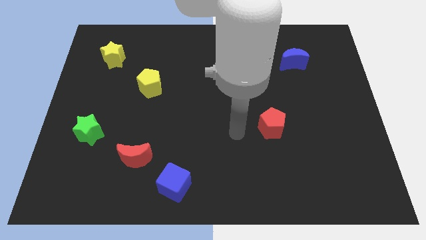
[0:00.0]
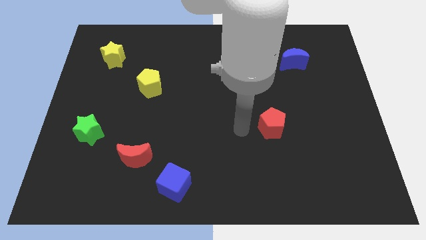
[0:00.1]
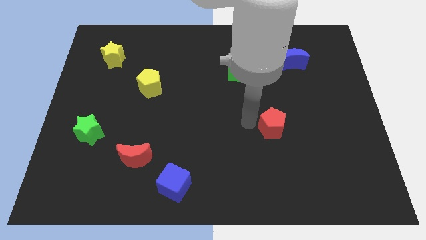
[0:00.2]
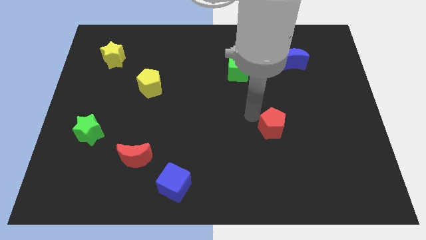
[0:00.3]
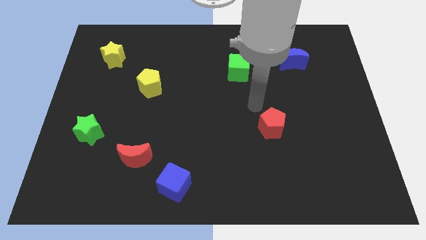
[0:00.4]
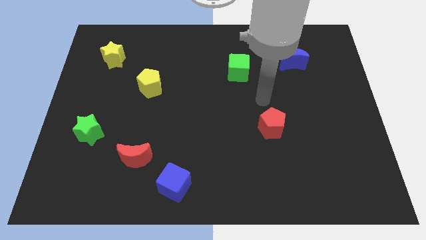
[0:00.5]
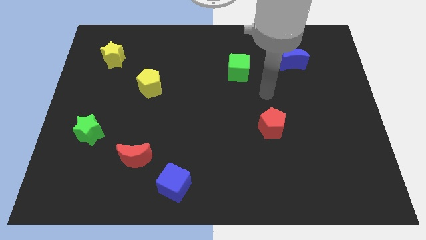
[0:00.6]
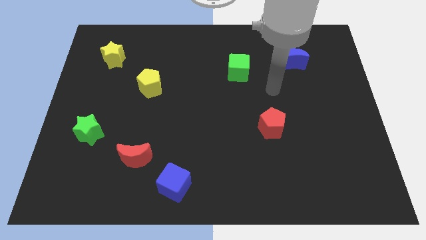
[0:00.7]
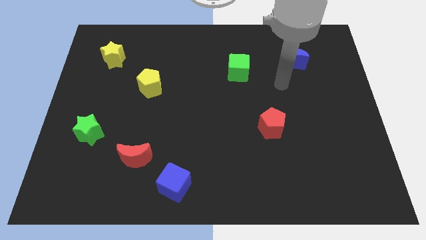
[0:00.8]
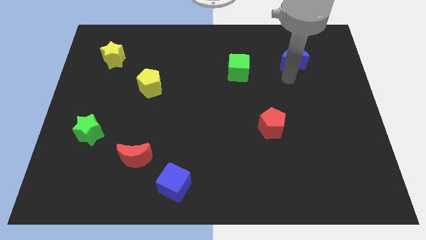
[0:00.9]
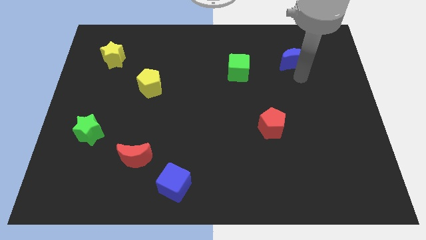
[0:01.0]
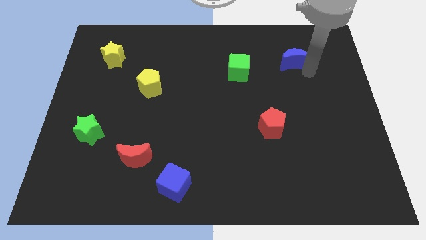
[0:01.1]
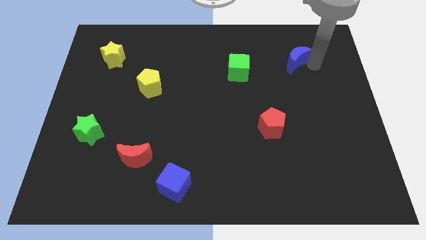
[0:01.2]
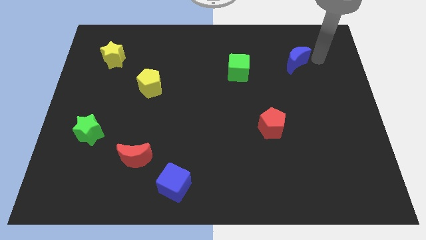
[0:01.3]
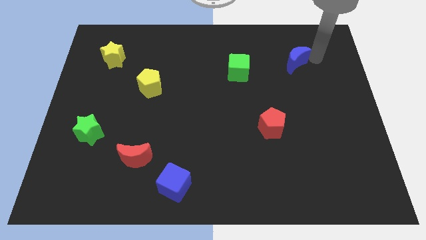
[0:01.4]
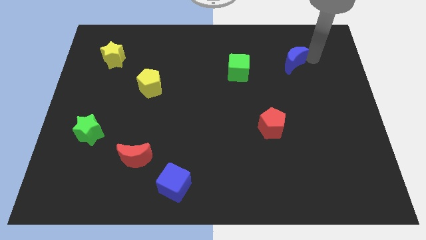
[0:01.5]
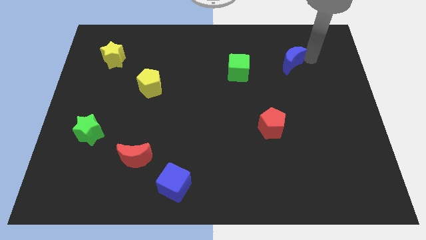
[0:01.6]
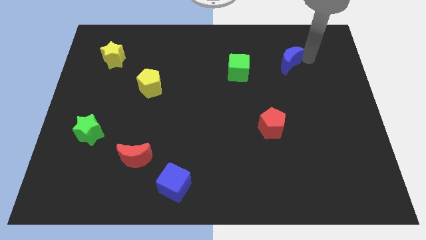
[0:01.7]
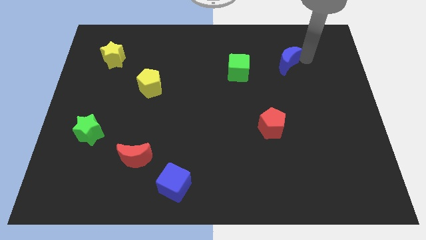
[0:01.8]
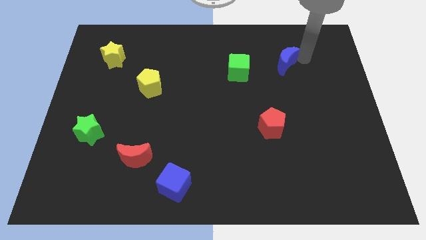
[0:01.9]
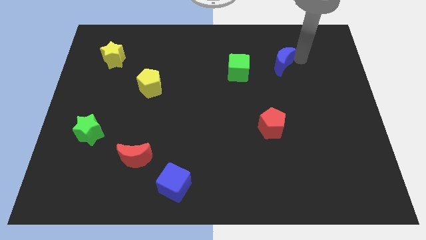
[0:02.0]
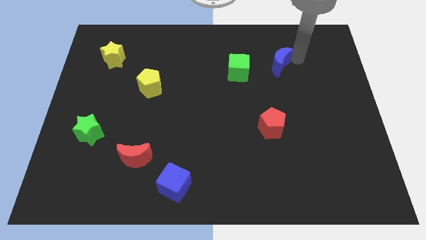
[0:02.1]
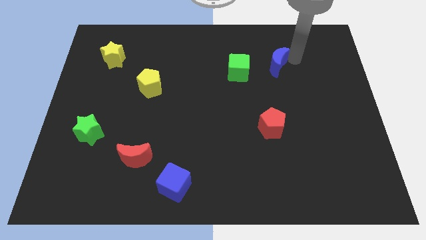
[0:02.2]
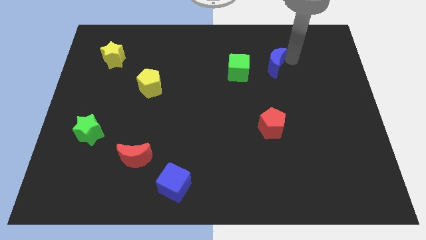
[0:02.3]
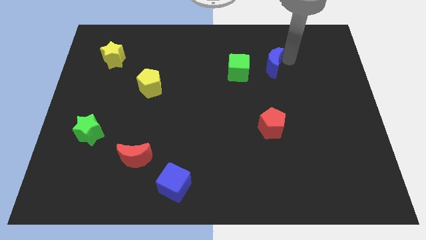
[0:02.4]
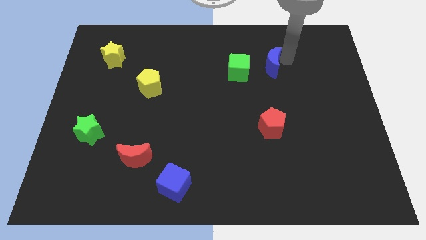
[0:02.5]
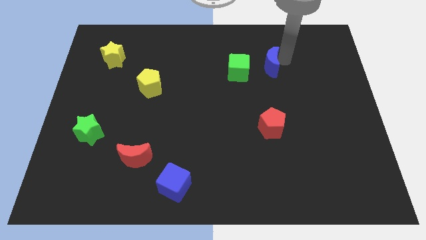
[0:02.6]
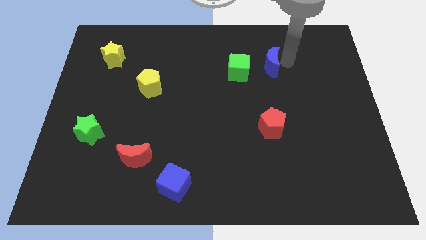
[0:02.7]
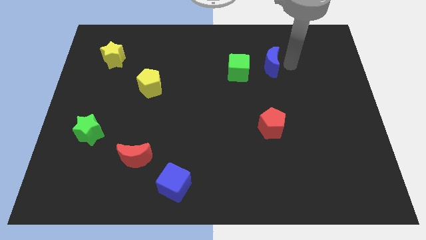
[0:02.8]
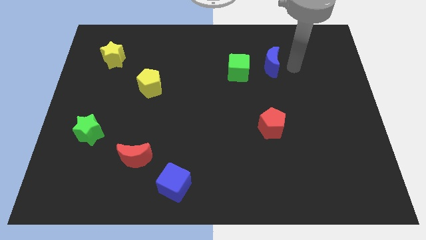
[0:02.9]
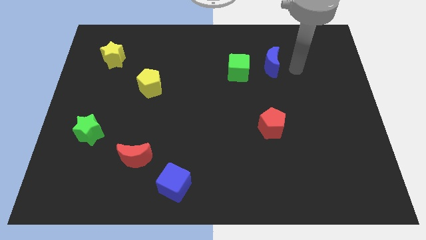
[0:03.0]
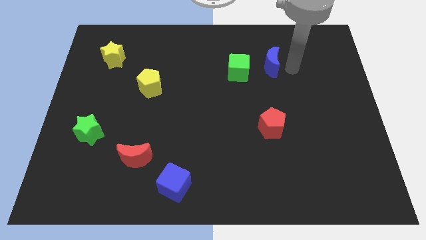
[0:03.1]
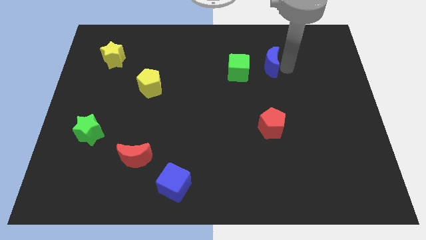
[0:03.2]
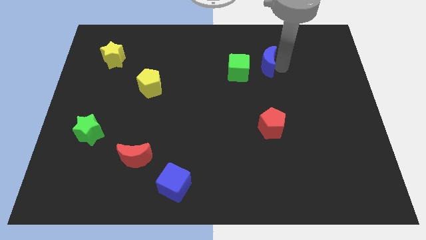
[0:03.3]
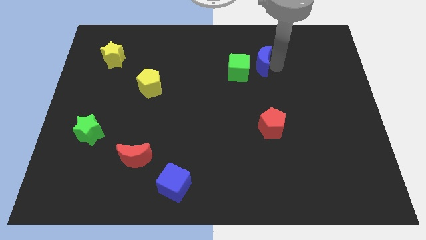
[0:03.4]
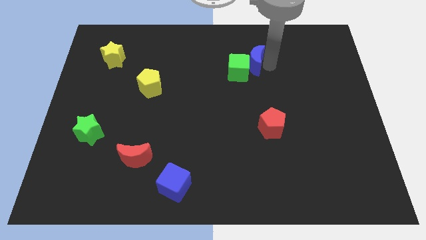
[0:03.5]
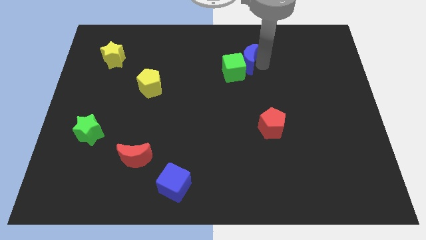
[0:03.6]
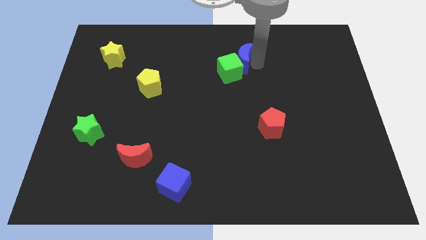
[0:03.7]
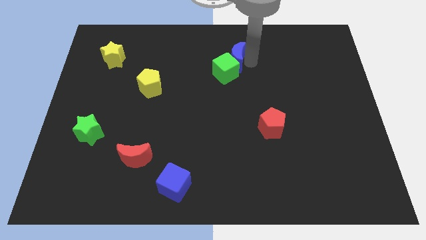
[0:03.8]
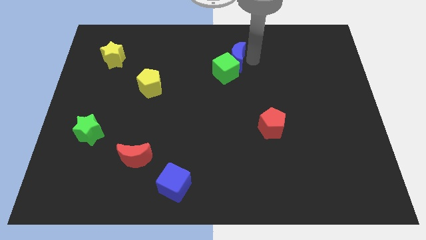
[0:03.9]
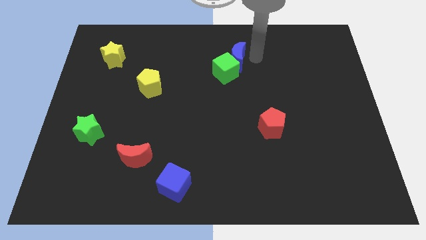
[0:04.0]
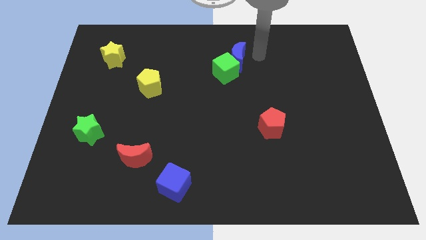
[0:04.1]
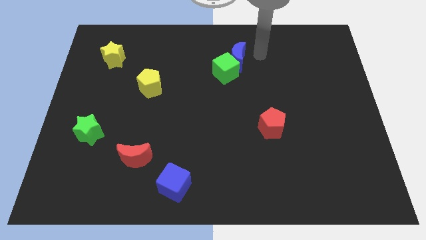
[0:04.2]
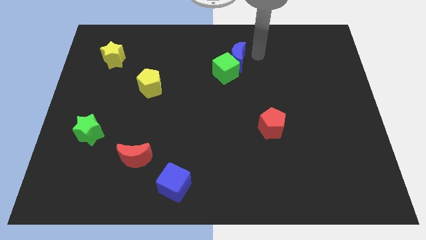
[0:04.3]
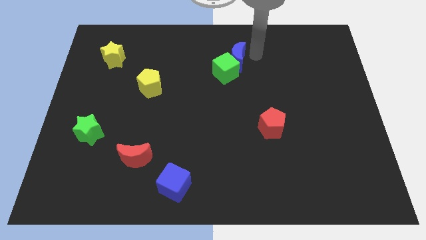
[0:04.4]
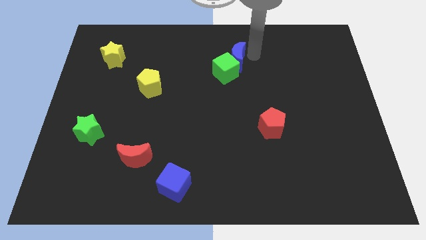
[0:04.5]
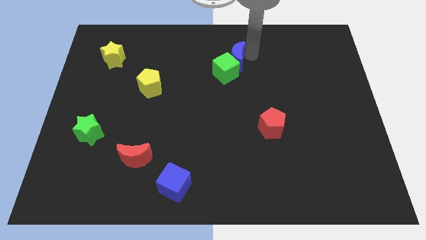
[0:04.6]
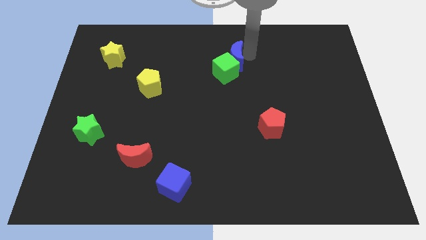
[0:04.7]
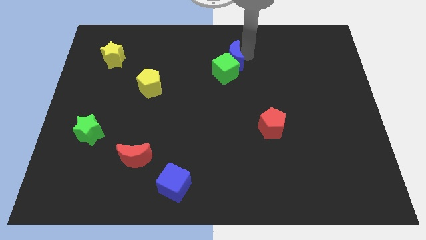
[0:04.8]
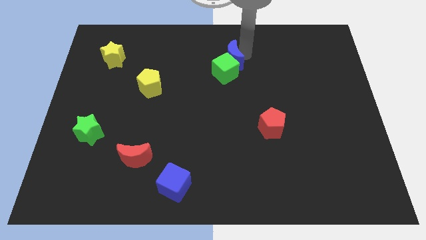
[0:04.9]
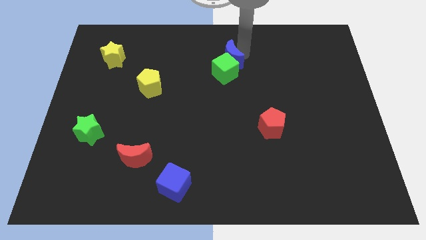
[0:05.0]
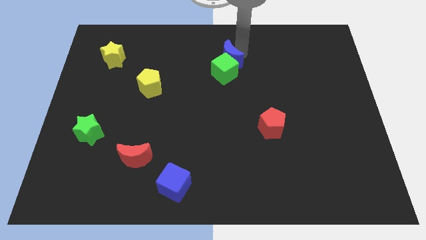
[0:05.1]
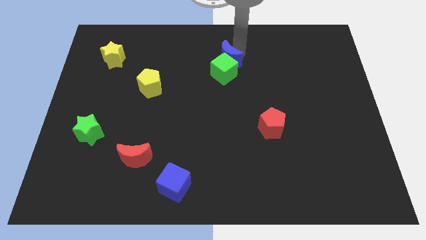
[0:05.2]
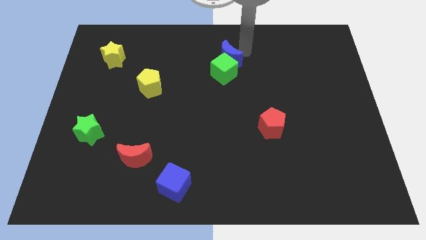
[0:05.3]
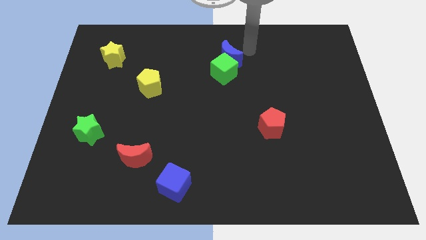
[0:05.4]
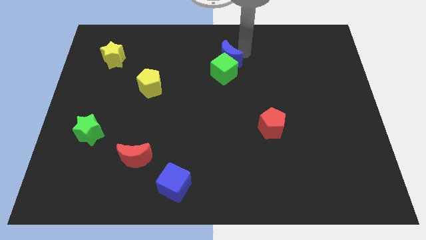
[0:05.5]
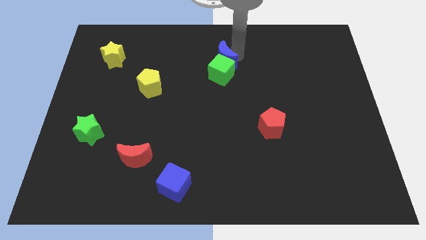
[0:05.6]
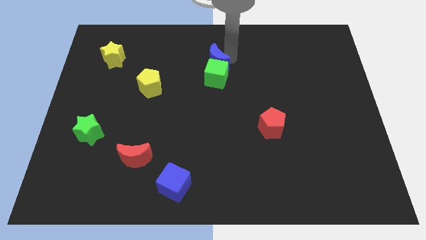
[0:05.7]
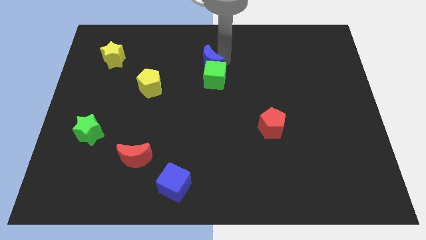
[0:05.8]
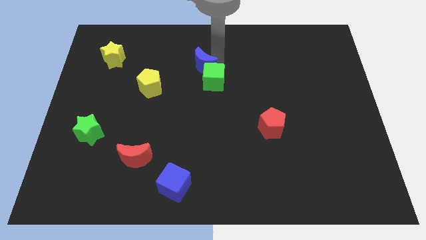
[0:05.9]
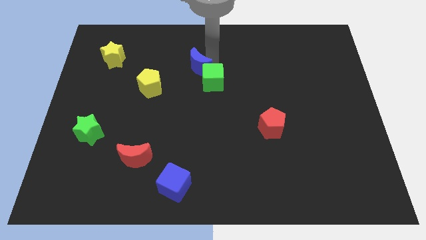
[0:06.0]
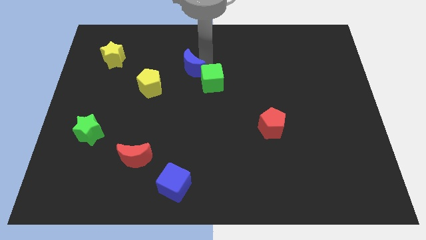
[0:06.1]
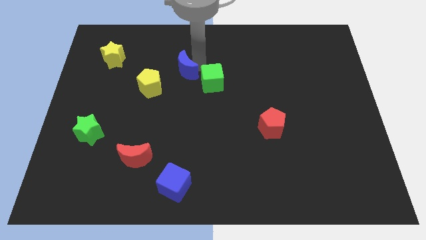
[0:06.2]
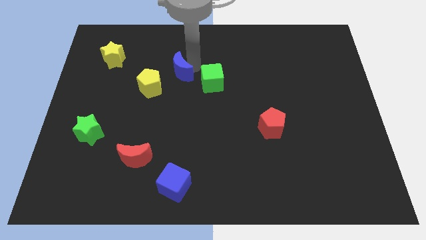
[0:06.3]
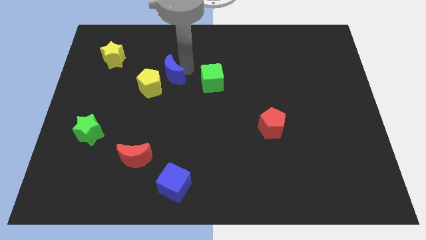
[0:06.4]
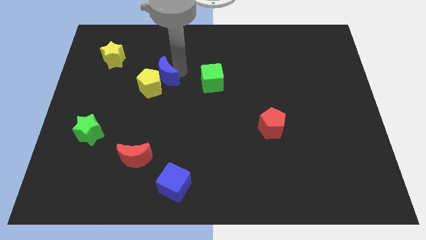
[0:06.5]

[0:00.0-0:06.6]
move the blue moon next to the yellow pentagon

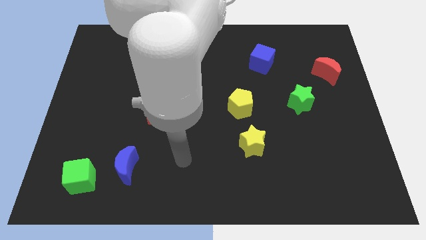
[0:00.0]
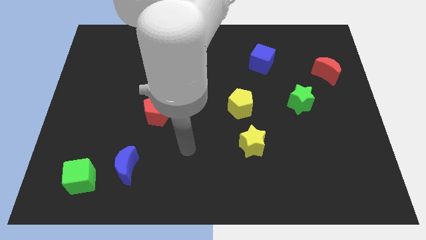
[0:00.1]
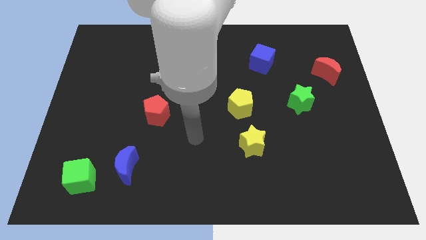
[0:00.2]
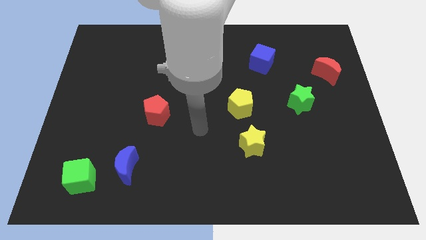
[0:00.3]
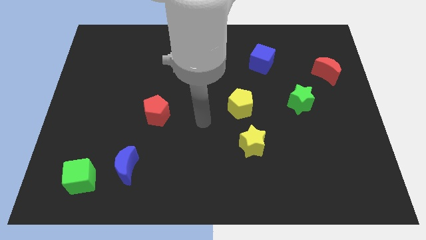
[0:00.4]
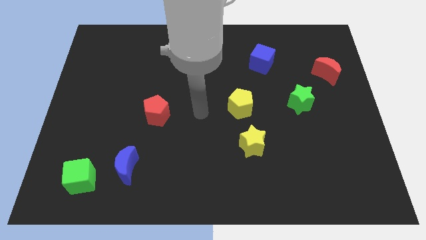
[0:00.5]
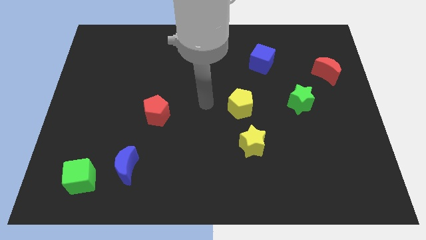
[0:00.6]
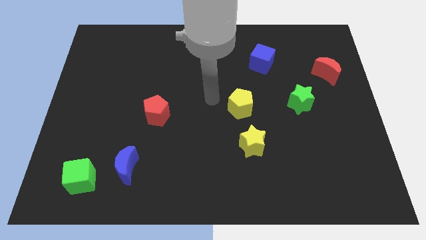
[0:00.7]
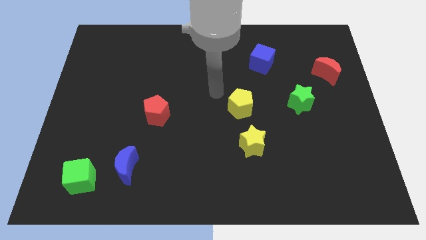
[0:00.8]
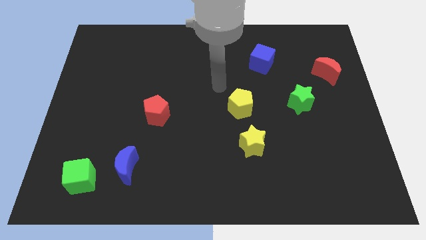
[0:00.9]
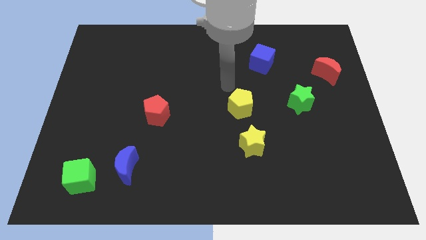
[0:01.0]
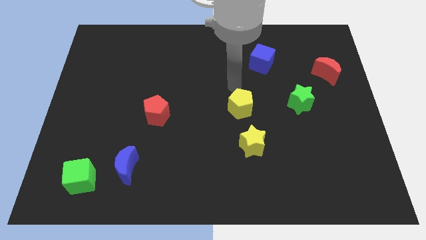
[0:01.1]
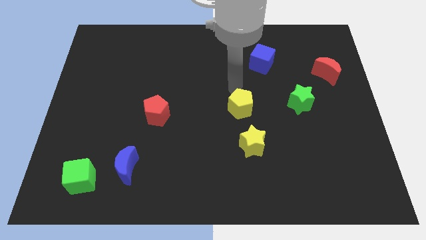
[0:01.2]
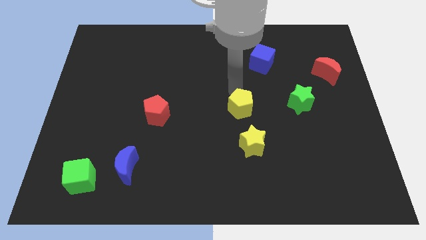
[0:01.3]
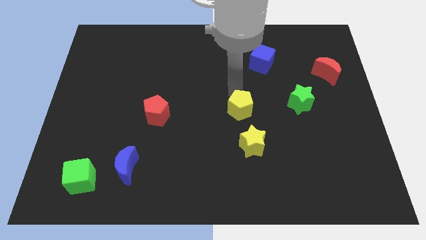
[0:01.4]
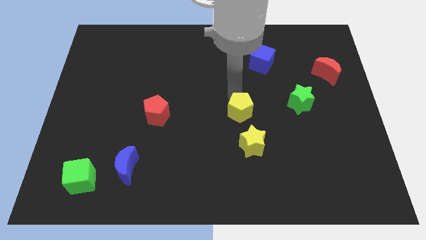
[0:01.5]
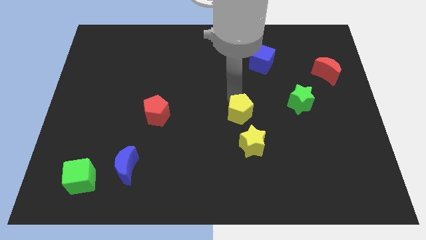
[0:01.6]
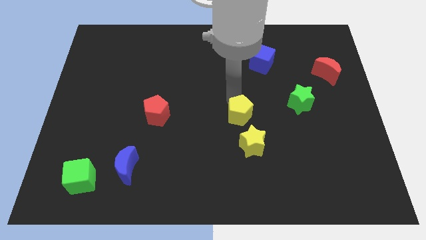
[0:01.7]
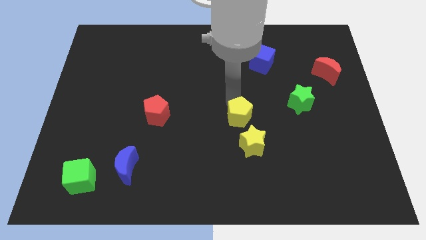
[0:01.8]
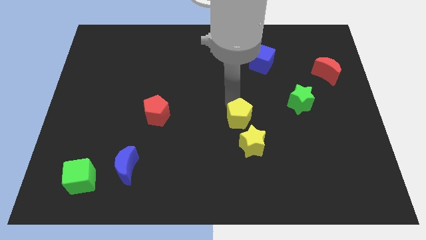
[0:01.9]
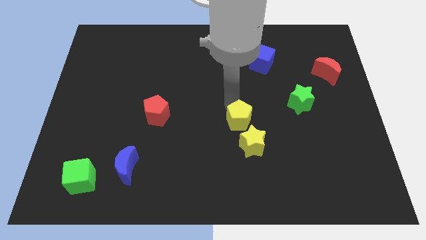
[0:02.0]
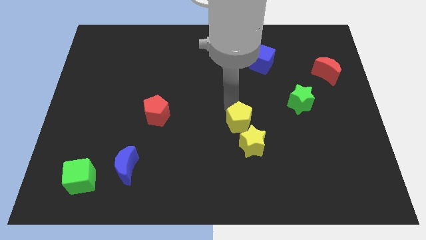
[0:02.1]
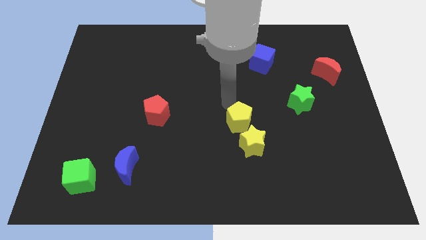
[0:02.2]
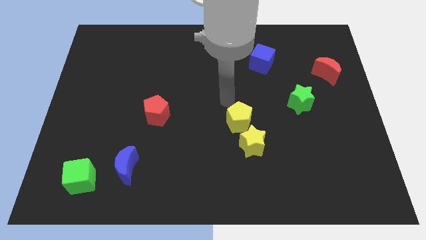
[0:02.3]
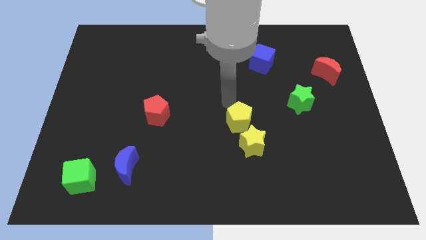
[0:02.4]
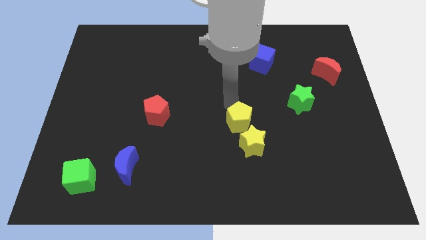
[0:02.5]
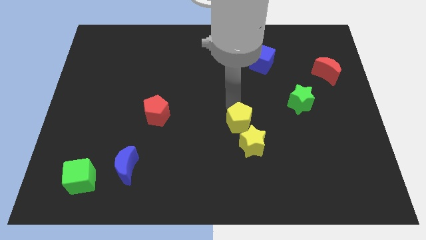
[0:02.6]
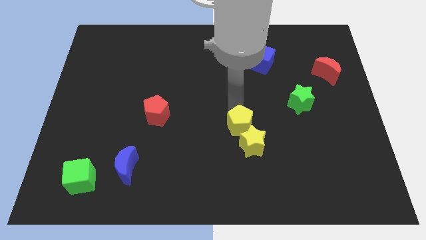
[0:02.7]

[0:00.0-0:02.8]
move the yellow pentagon next to the yellow star
